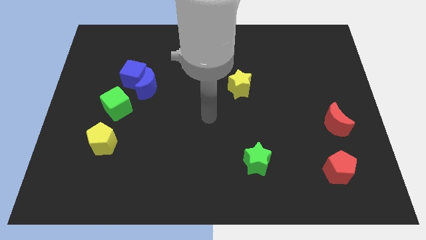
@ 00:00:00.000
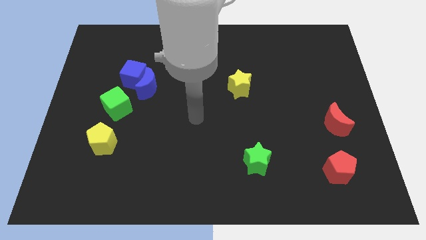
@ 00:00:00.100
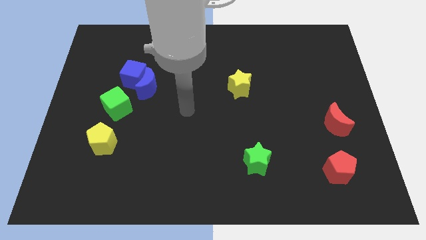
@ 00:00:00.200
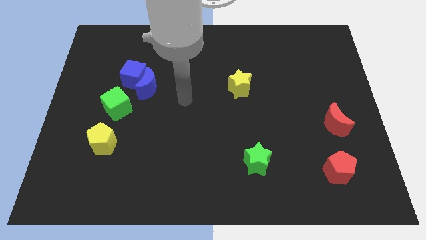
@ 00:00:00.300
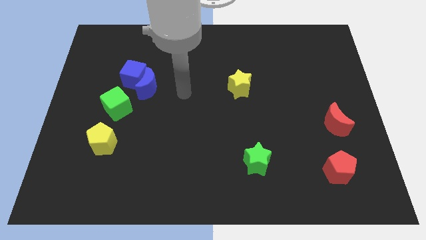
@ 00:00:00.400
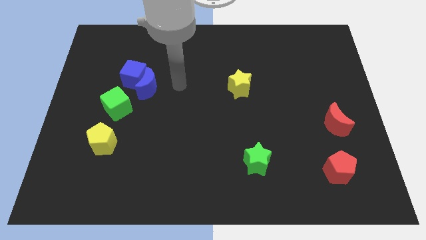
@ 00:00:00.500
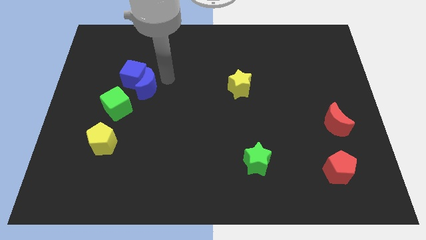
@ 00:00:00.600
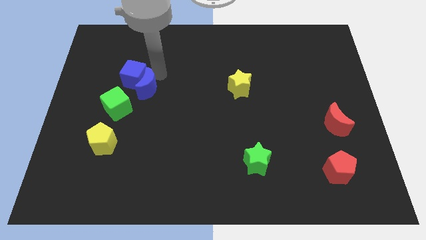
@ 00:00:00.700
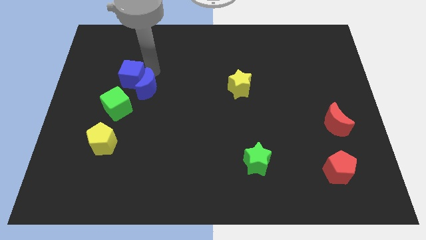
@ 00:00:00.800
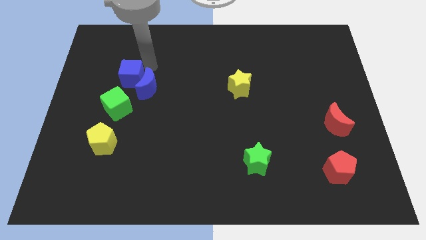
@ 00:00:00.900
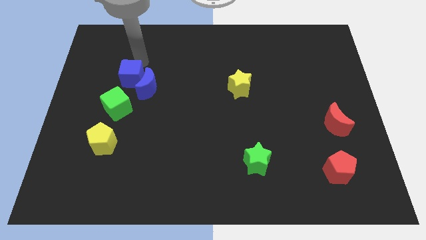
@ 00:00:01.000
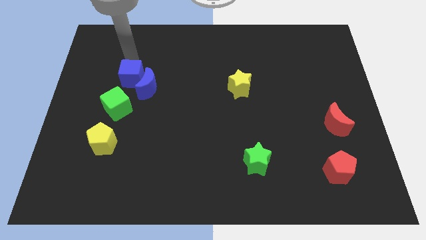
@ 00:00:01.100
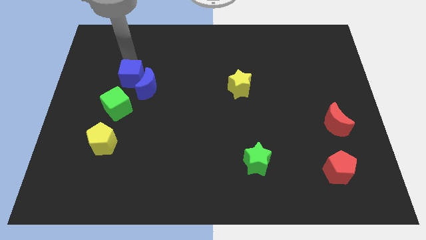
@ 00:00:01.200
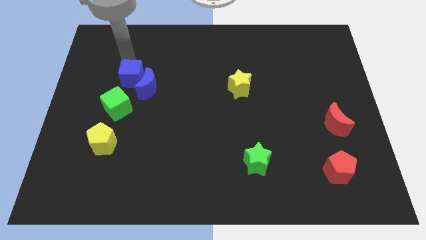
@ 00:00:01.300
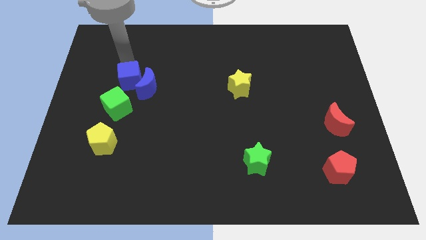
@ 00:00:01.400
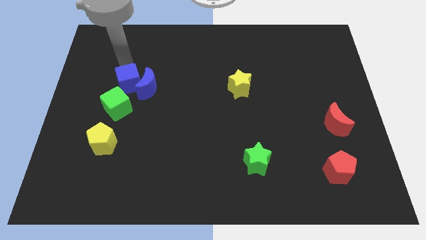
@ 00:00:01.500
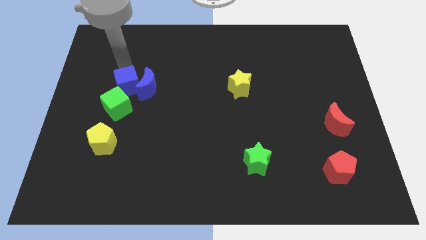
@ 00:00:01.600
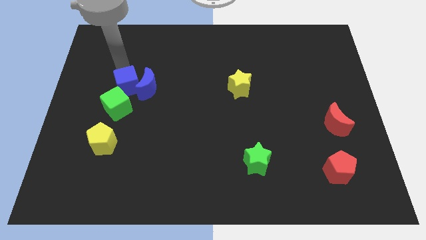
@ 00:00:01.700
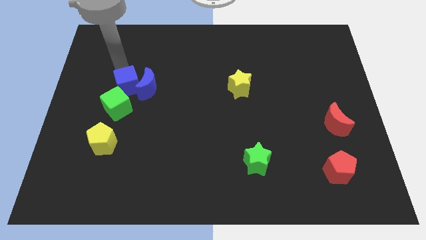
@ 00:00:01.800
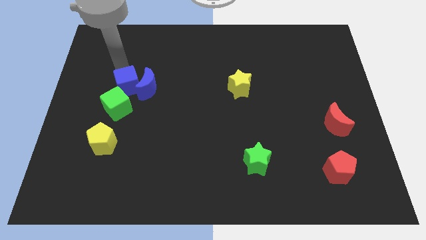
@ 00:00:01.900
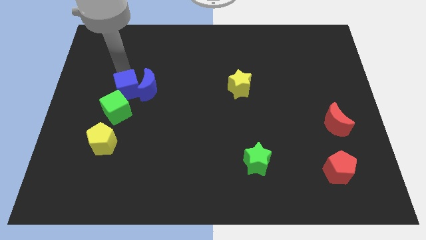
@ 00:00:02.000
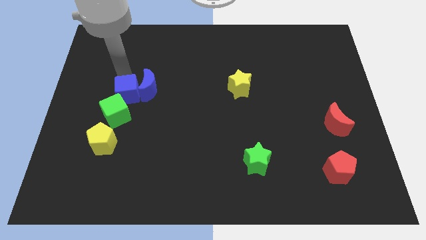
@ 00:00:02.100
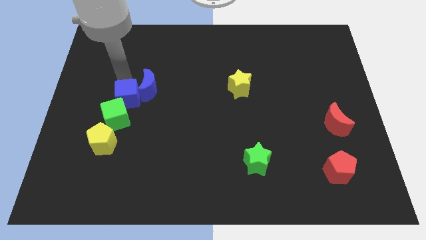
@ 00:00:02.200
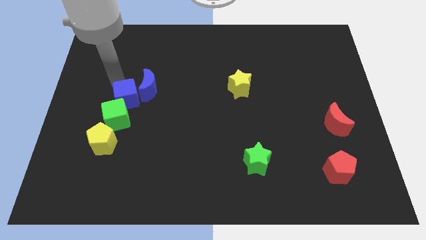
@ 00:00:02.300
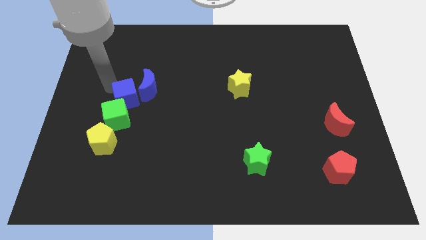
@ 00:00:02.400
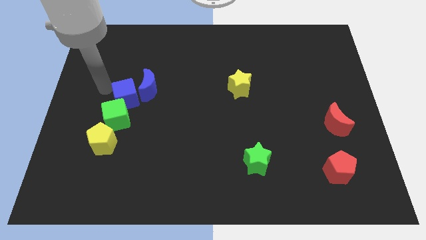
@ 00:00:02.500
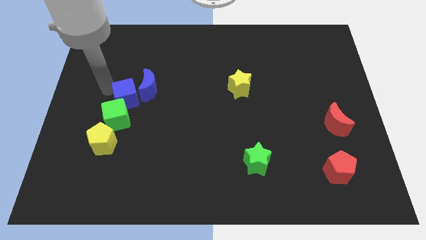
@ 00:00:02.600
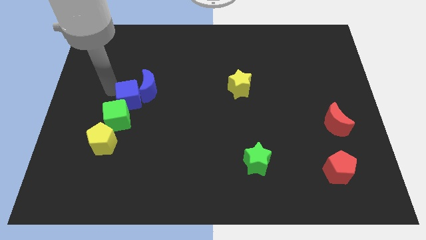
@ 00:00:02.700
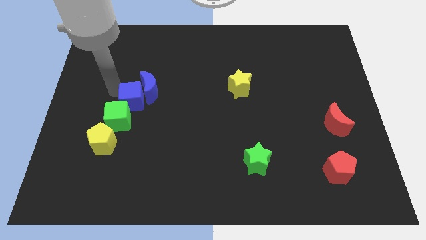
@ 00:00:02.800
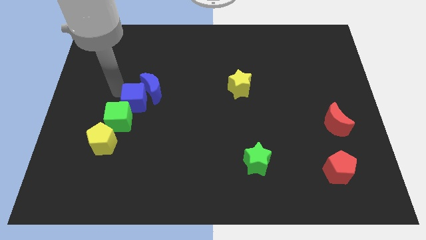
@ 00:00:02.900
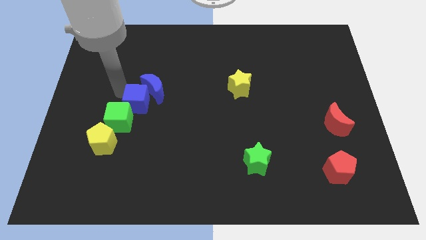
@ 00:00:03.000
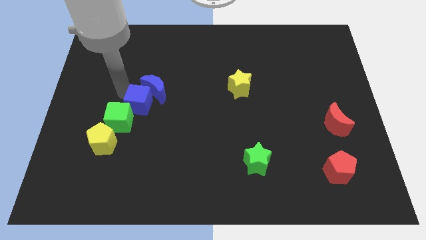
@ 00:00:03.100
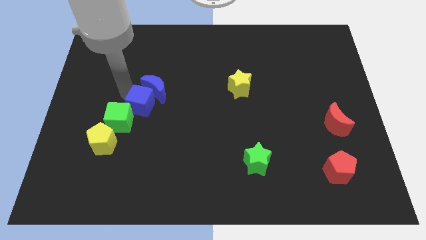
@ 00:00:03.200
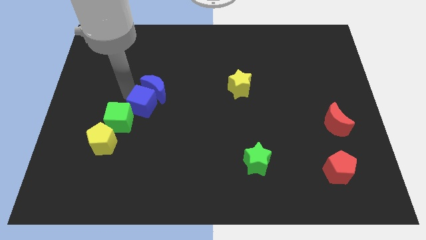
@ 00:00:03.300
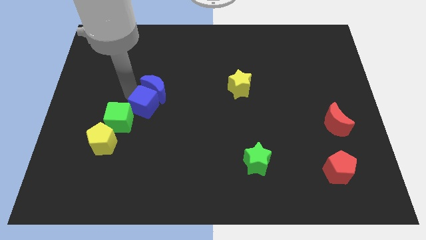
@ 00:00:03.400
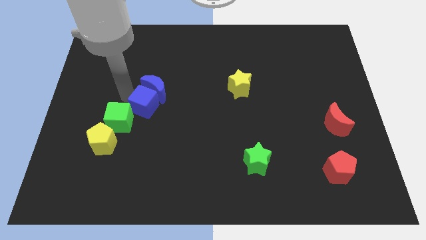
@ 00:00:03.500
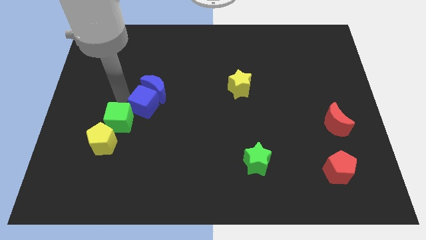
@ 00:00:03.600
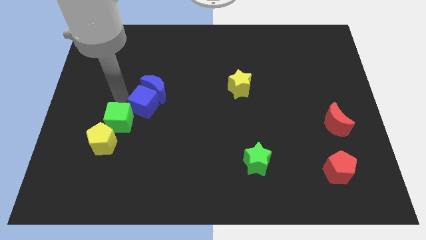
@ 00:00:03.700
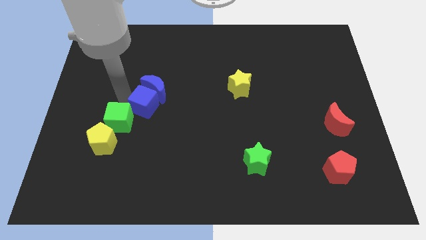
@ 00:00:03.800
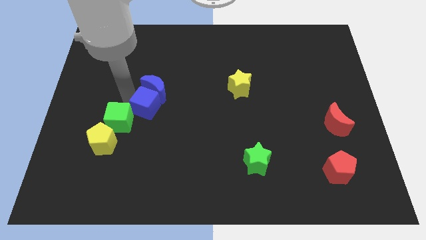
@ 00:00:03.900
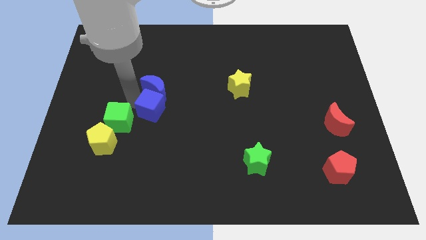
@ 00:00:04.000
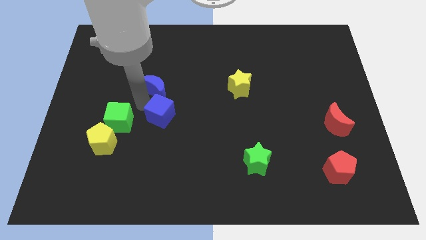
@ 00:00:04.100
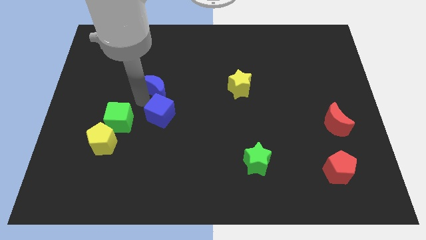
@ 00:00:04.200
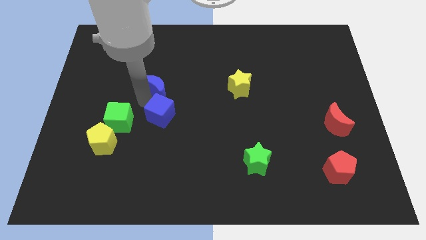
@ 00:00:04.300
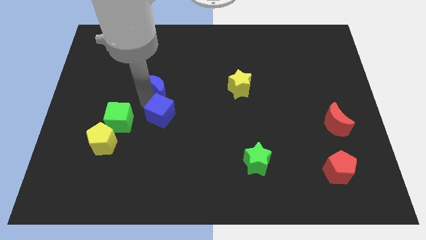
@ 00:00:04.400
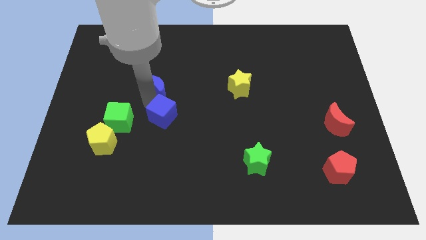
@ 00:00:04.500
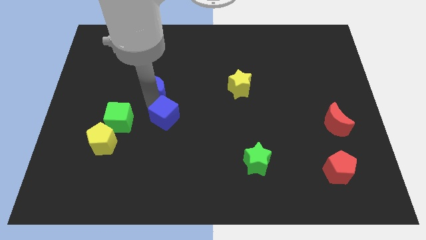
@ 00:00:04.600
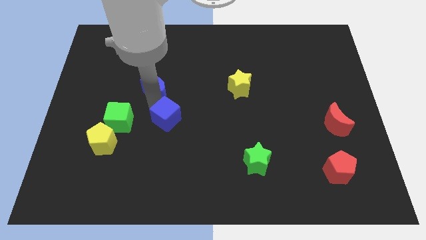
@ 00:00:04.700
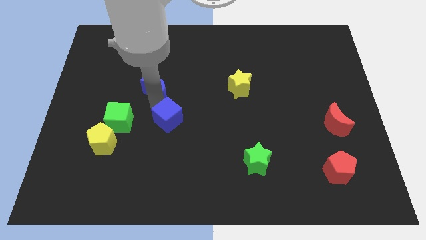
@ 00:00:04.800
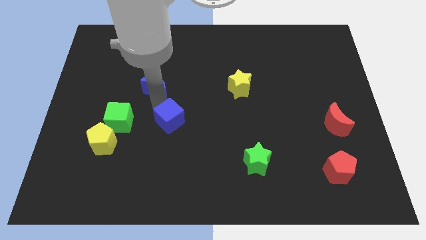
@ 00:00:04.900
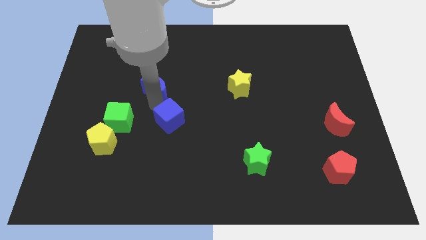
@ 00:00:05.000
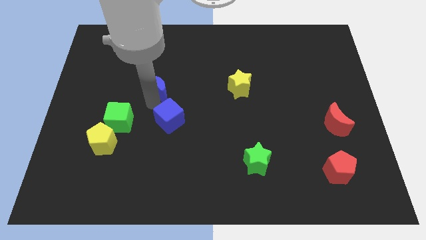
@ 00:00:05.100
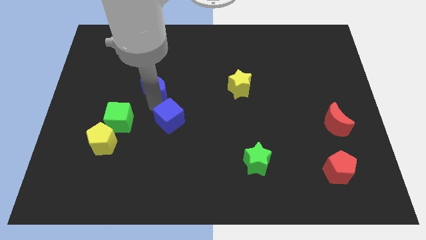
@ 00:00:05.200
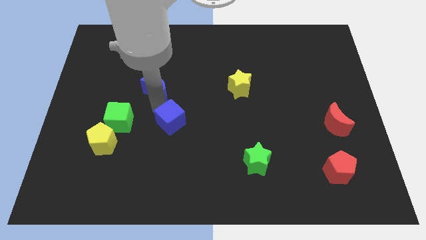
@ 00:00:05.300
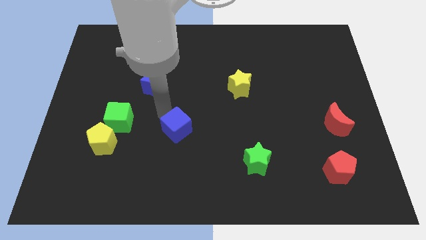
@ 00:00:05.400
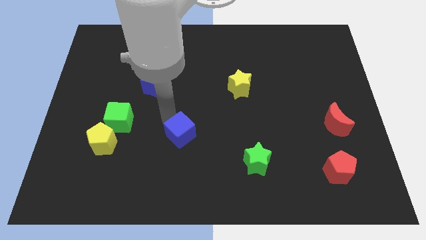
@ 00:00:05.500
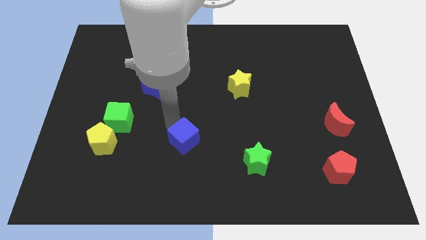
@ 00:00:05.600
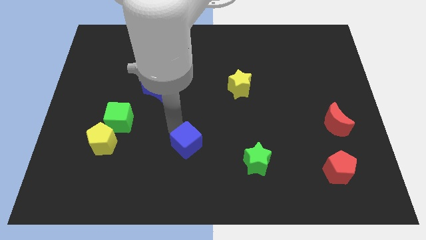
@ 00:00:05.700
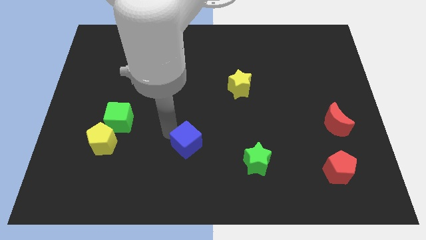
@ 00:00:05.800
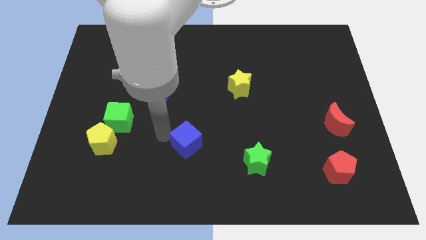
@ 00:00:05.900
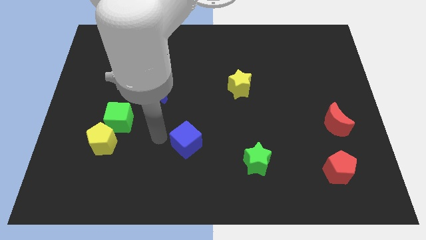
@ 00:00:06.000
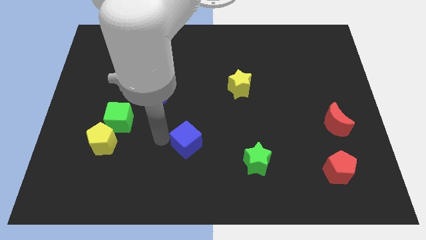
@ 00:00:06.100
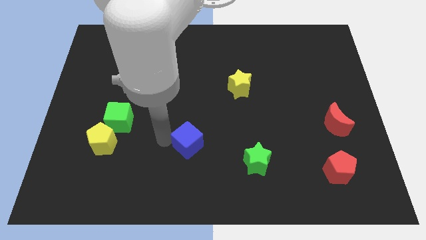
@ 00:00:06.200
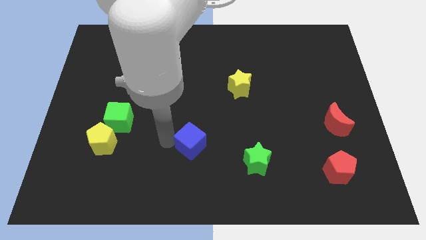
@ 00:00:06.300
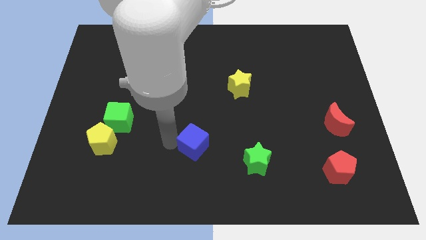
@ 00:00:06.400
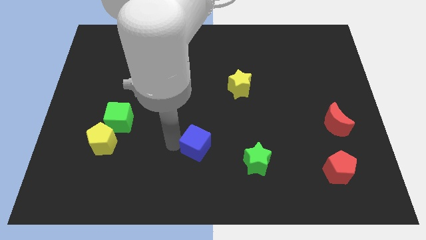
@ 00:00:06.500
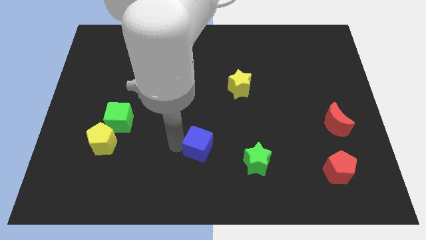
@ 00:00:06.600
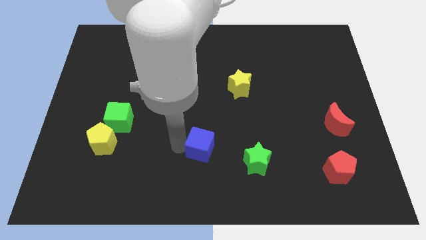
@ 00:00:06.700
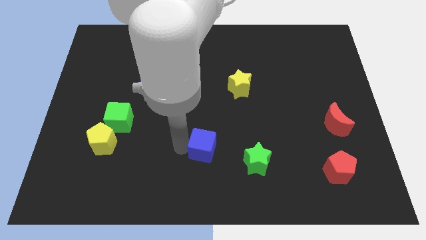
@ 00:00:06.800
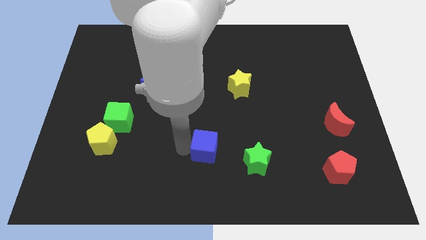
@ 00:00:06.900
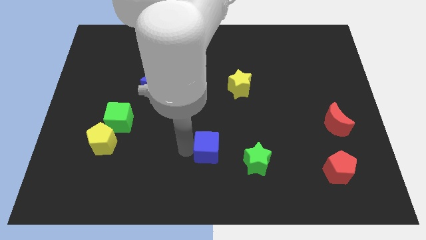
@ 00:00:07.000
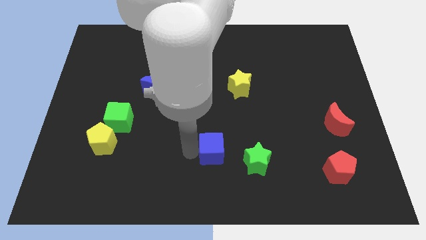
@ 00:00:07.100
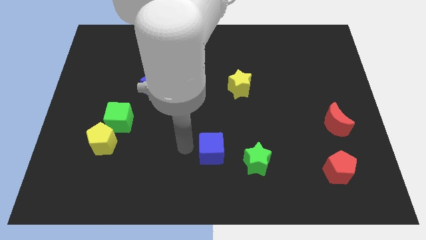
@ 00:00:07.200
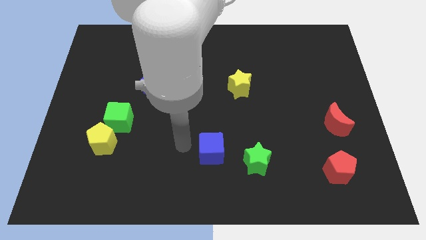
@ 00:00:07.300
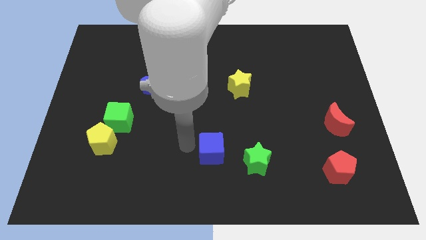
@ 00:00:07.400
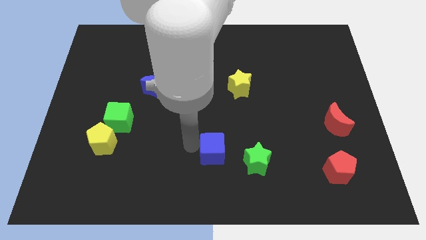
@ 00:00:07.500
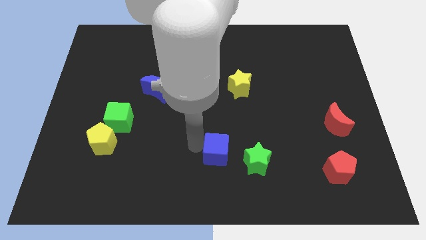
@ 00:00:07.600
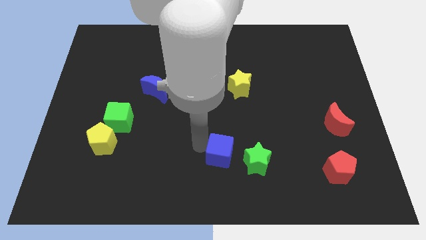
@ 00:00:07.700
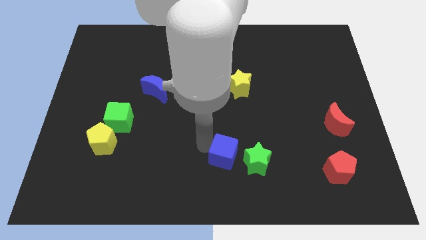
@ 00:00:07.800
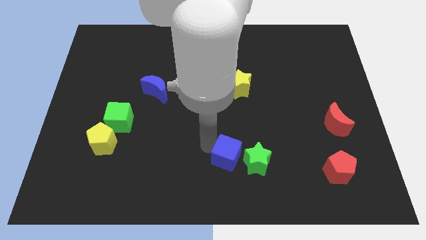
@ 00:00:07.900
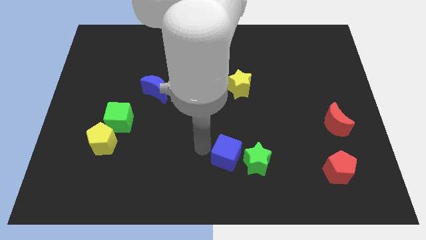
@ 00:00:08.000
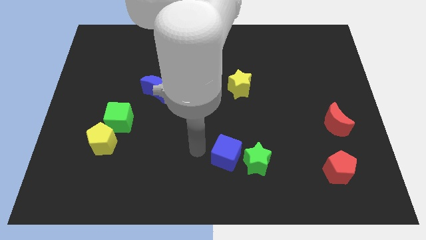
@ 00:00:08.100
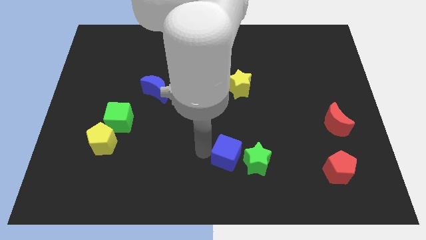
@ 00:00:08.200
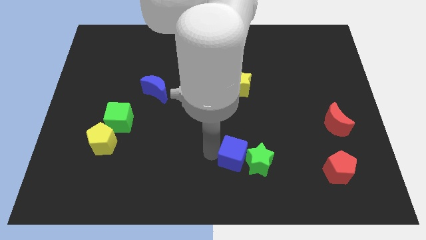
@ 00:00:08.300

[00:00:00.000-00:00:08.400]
move the blue cube to the green star
